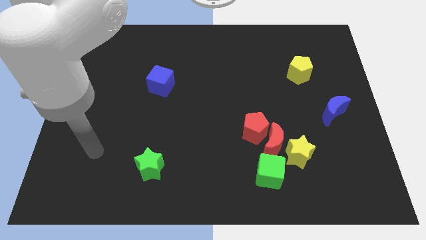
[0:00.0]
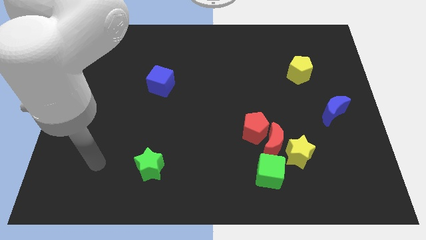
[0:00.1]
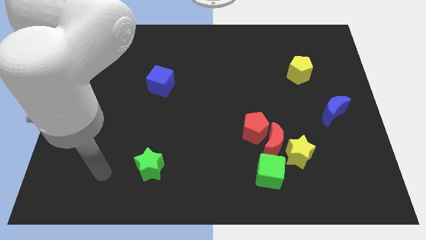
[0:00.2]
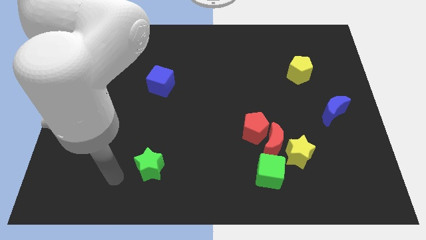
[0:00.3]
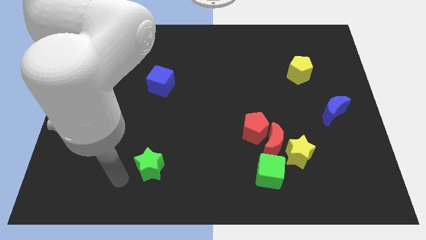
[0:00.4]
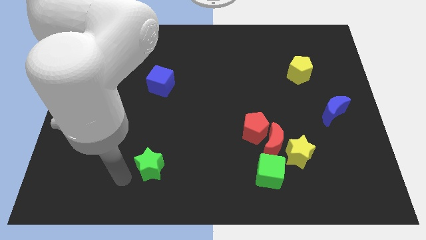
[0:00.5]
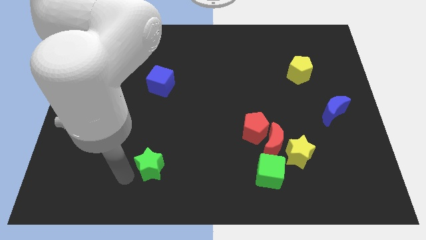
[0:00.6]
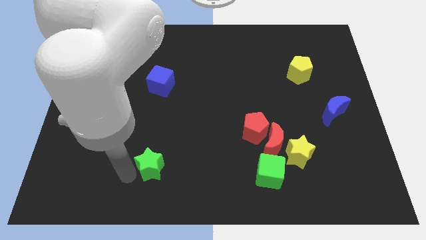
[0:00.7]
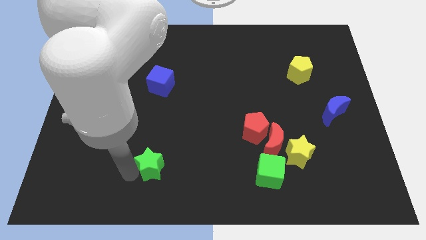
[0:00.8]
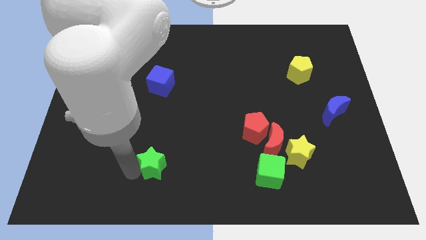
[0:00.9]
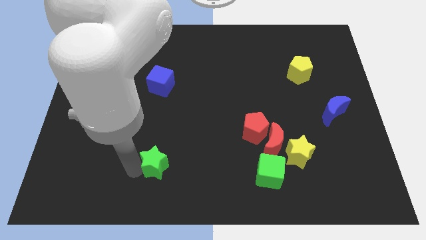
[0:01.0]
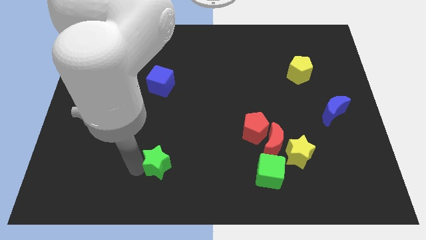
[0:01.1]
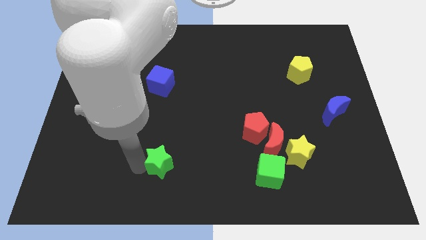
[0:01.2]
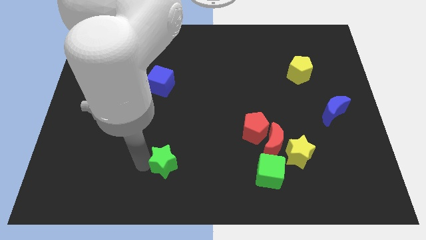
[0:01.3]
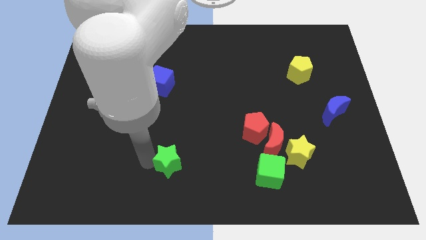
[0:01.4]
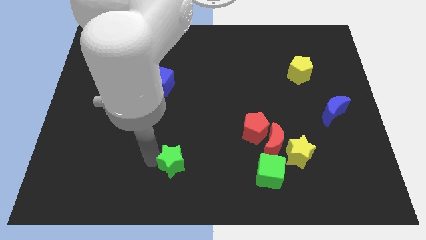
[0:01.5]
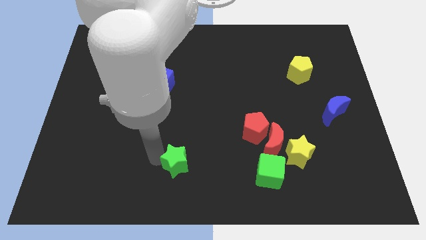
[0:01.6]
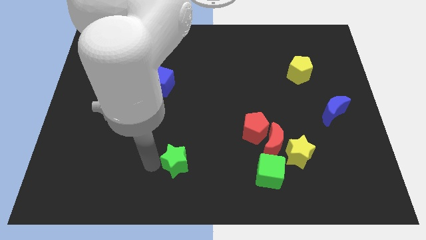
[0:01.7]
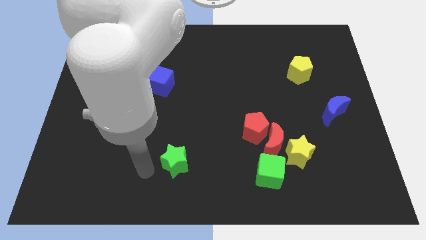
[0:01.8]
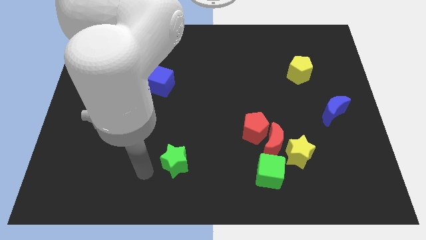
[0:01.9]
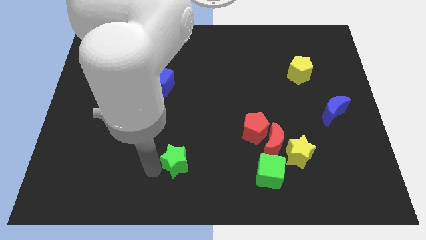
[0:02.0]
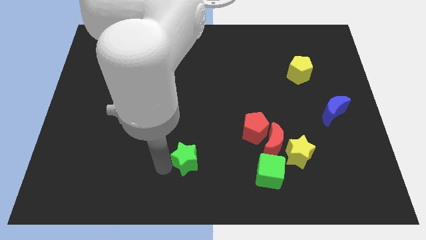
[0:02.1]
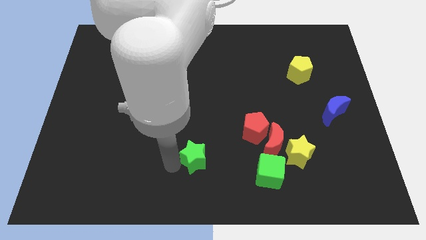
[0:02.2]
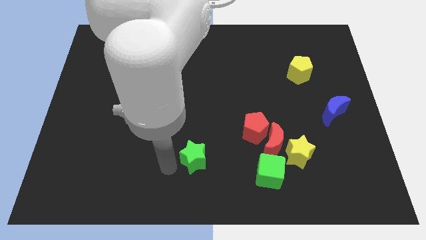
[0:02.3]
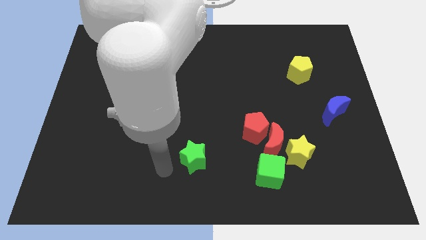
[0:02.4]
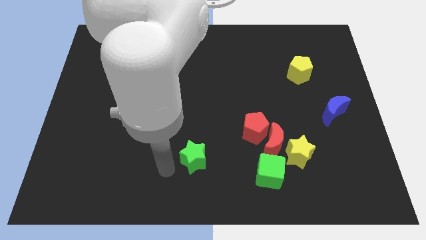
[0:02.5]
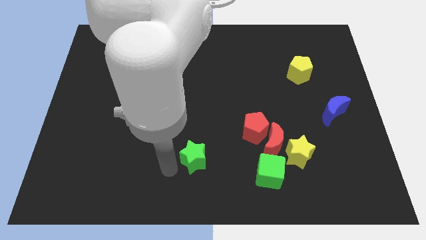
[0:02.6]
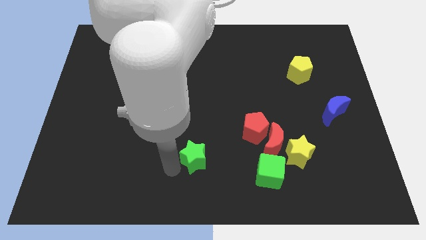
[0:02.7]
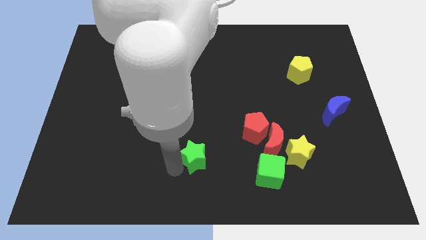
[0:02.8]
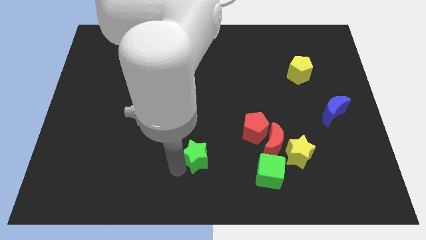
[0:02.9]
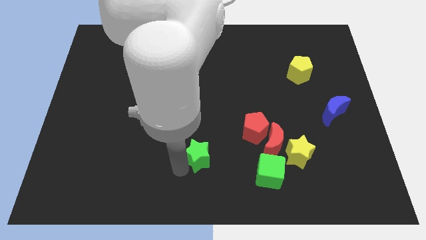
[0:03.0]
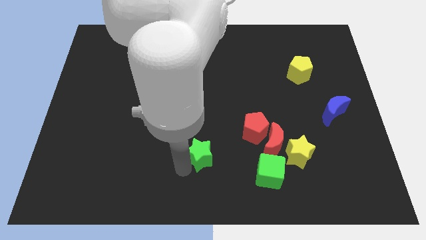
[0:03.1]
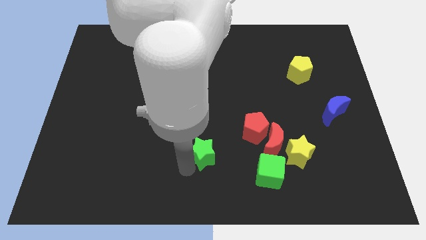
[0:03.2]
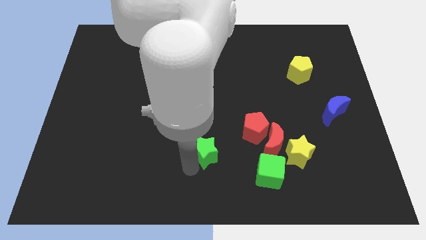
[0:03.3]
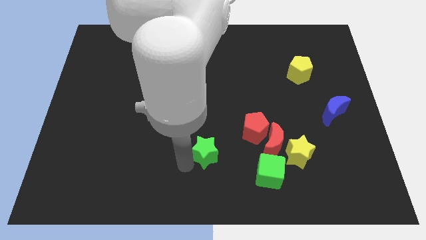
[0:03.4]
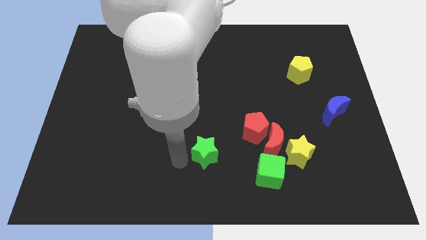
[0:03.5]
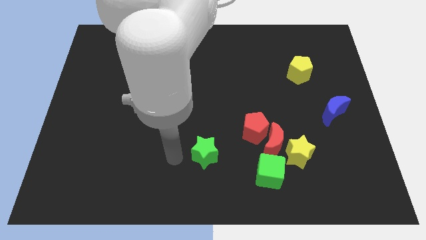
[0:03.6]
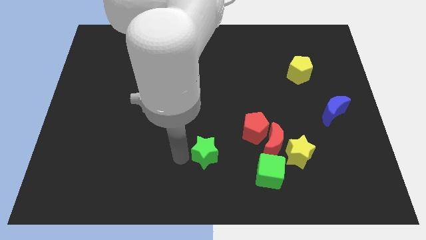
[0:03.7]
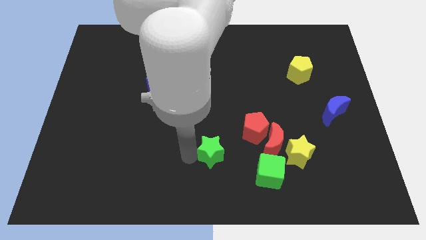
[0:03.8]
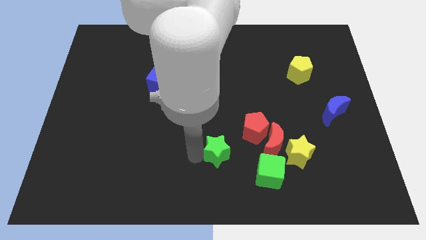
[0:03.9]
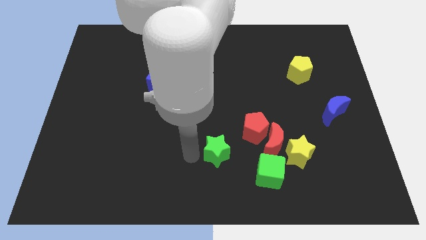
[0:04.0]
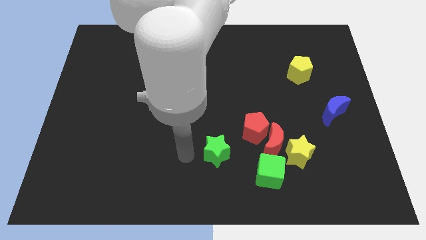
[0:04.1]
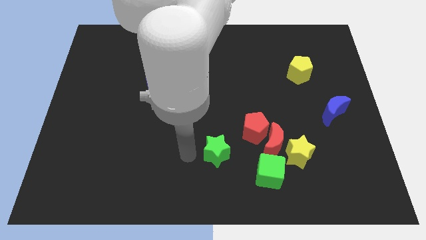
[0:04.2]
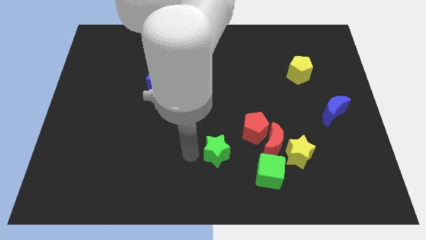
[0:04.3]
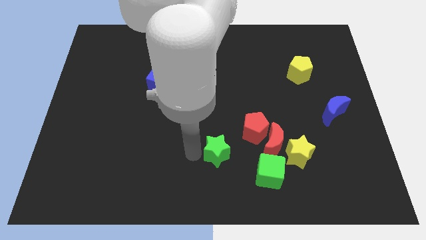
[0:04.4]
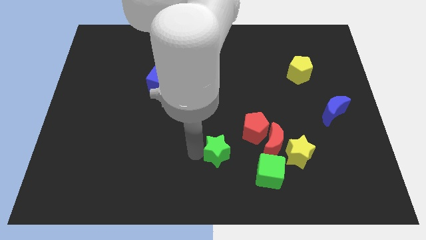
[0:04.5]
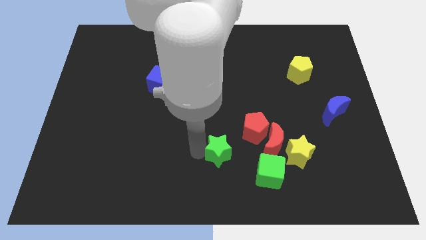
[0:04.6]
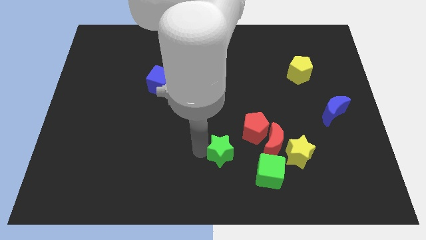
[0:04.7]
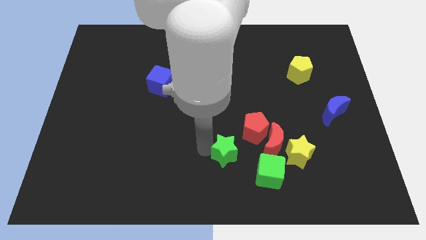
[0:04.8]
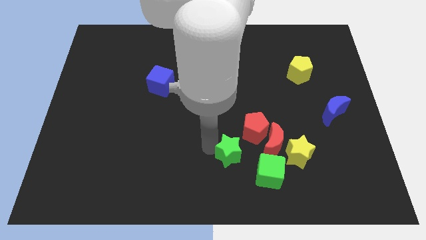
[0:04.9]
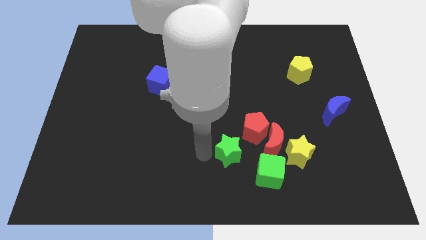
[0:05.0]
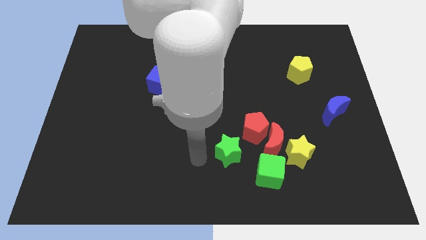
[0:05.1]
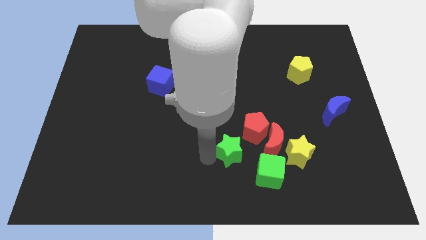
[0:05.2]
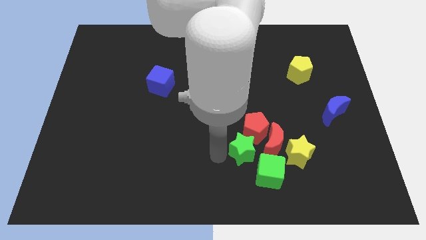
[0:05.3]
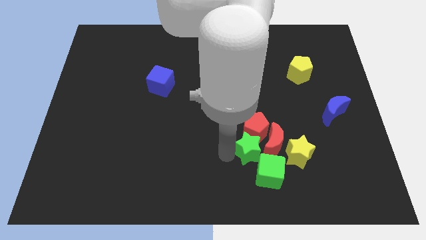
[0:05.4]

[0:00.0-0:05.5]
move the green star close to the red moon

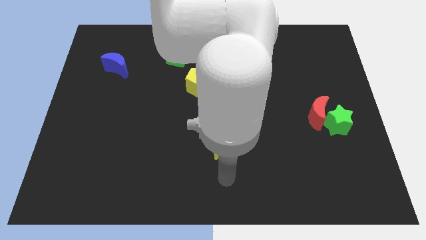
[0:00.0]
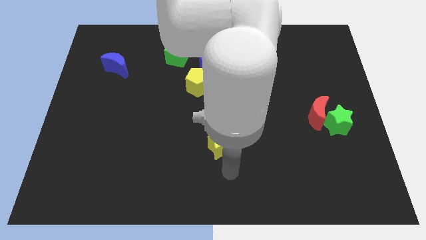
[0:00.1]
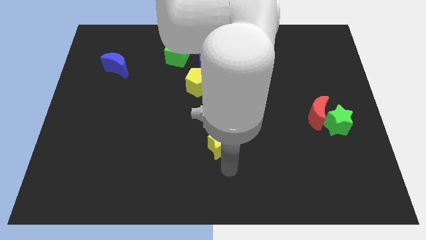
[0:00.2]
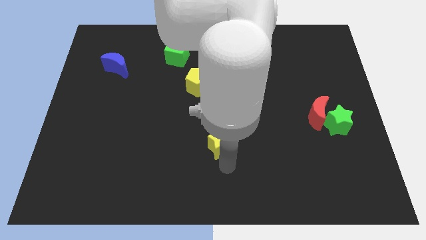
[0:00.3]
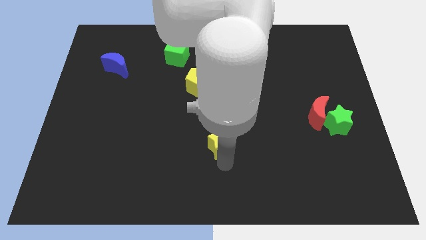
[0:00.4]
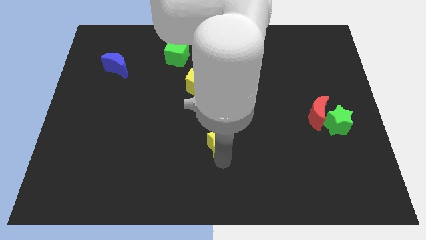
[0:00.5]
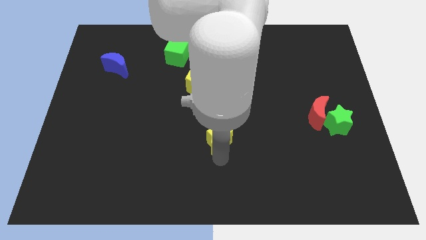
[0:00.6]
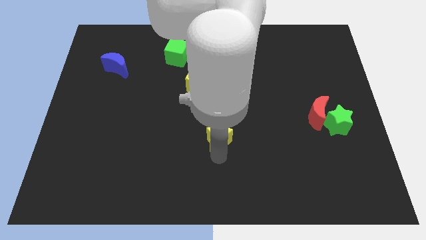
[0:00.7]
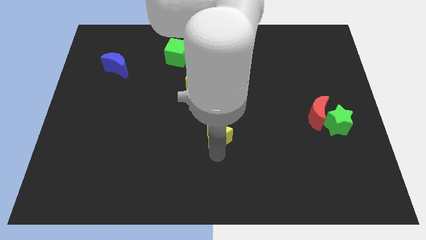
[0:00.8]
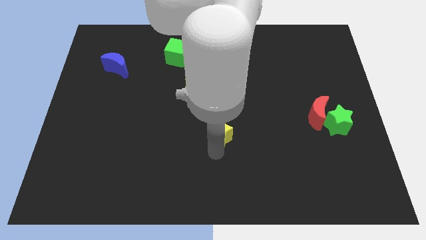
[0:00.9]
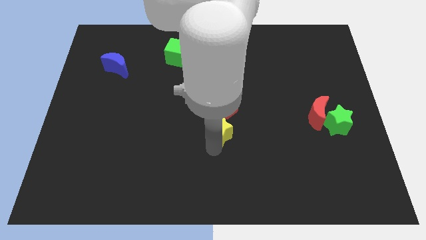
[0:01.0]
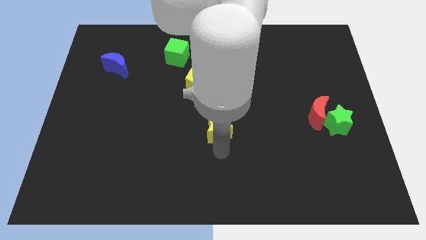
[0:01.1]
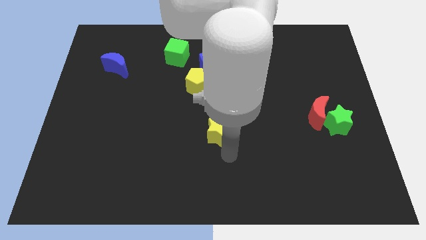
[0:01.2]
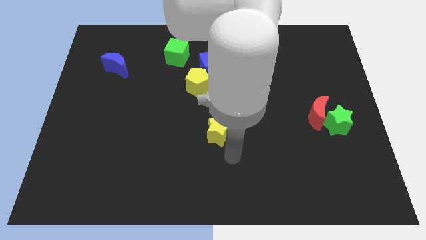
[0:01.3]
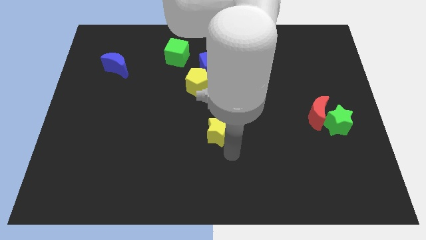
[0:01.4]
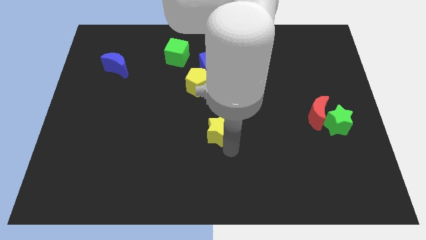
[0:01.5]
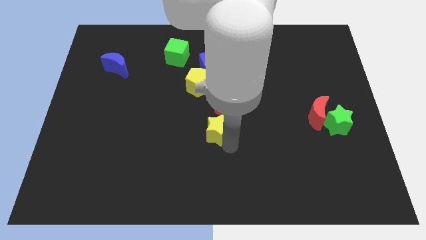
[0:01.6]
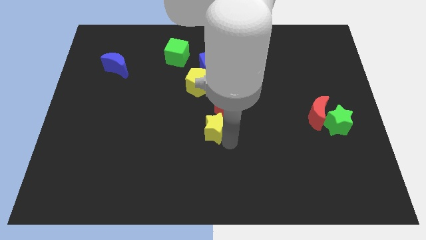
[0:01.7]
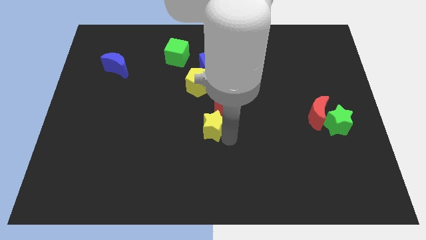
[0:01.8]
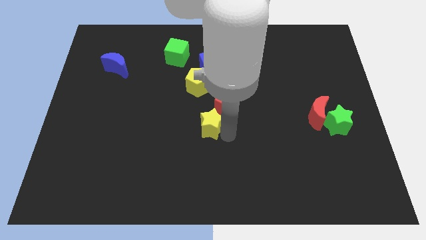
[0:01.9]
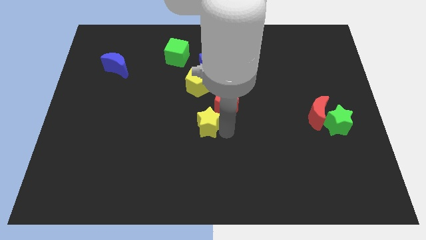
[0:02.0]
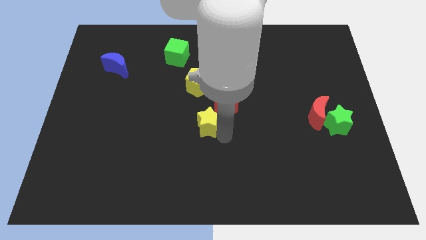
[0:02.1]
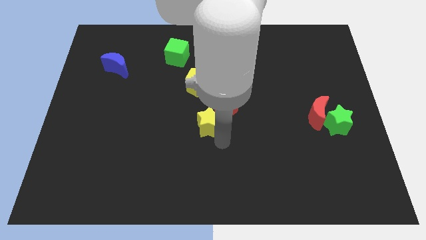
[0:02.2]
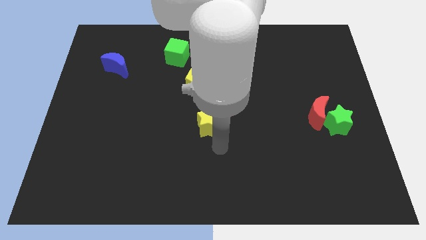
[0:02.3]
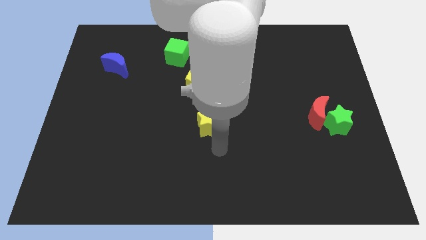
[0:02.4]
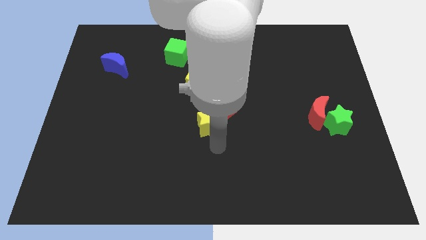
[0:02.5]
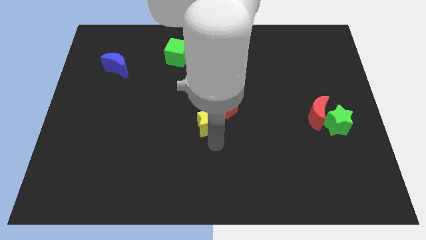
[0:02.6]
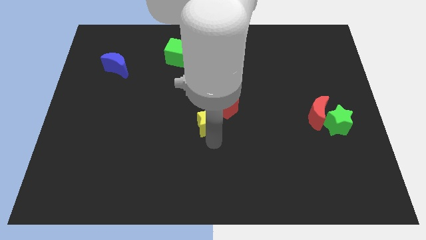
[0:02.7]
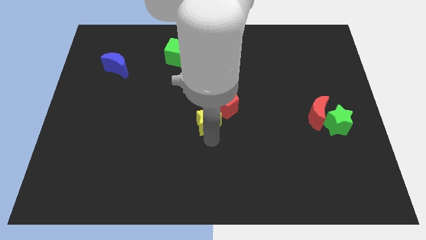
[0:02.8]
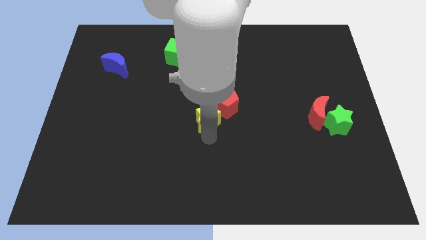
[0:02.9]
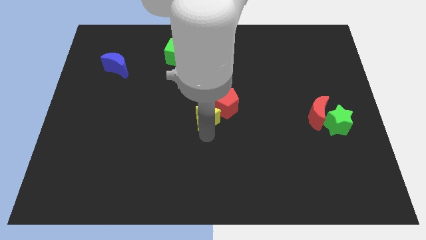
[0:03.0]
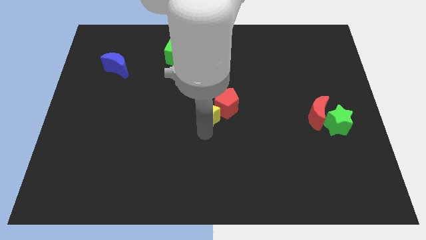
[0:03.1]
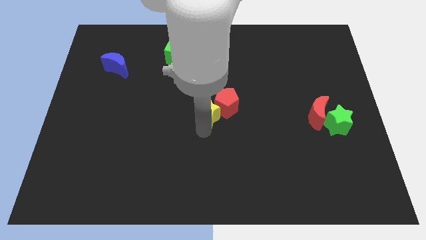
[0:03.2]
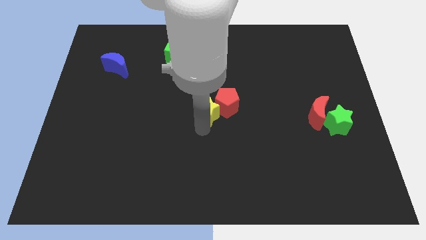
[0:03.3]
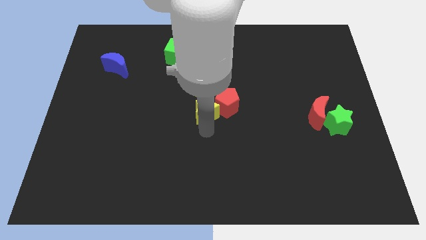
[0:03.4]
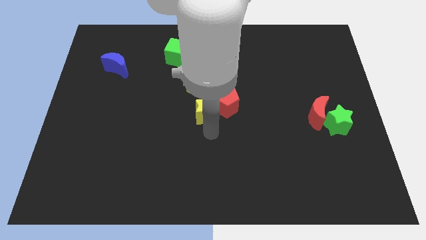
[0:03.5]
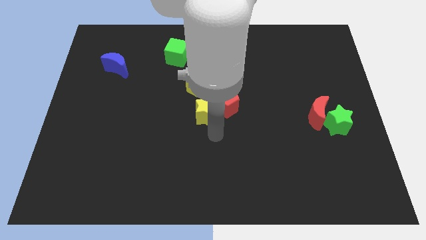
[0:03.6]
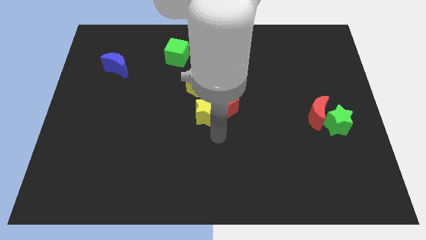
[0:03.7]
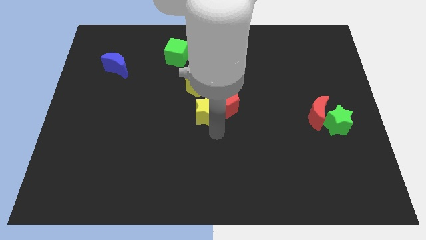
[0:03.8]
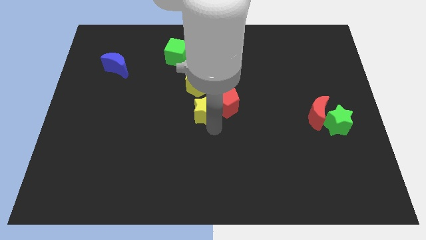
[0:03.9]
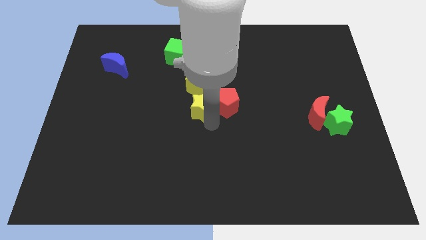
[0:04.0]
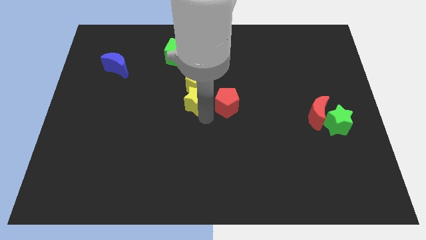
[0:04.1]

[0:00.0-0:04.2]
push the yellow star next to the yellow pentagon
